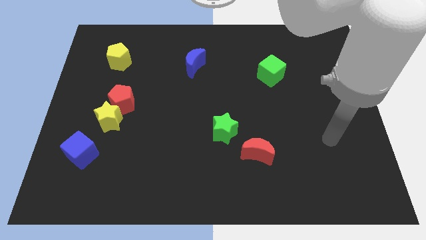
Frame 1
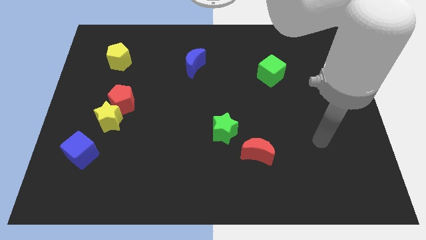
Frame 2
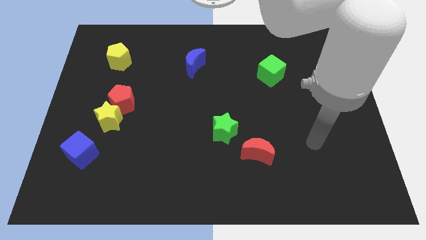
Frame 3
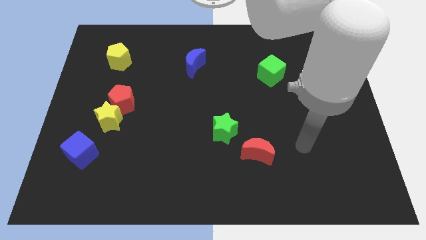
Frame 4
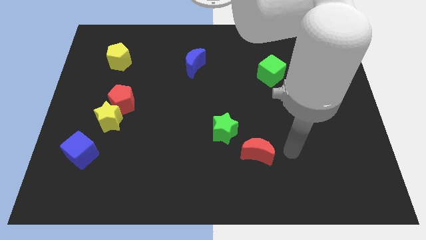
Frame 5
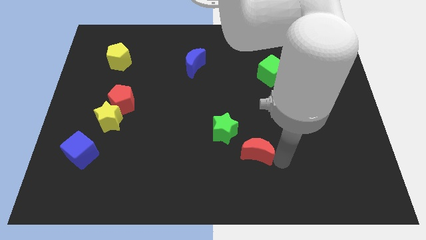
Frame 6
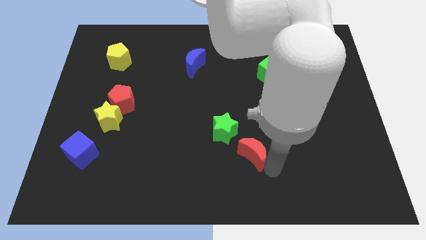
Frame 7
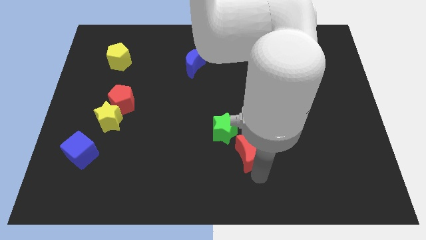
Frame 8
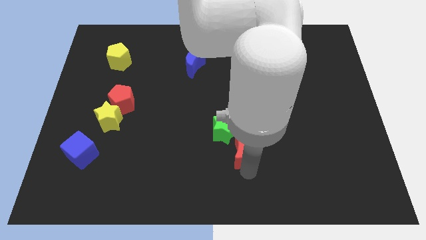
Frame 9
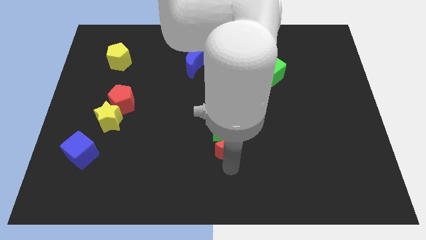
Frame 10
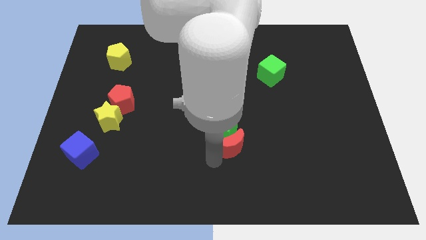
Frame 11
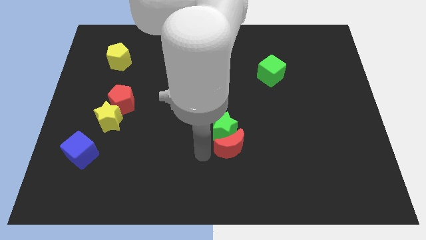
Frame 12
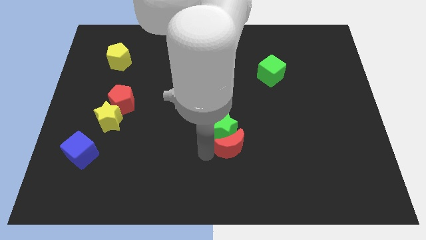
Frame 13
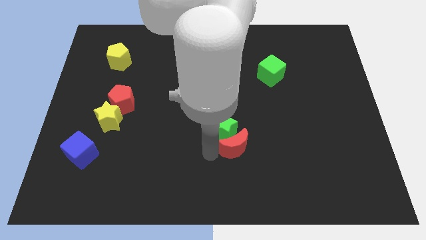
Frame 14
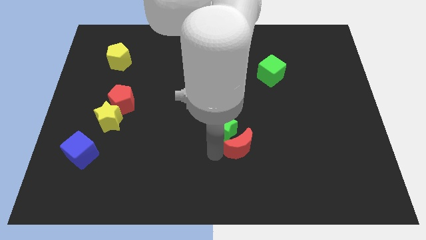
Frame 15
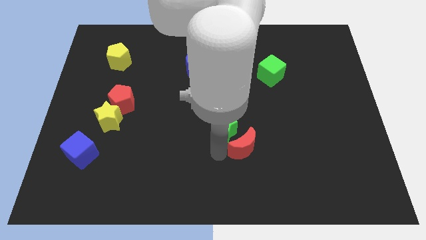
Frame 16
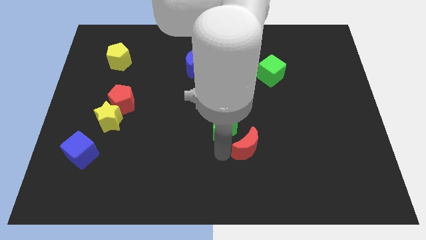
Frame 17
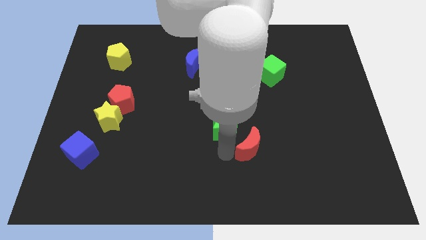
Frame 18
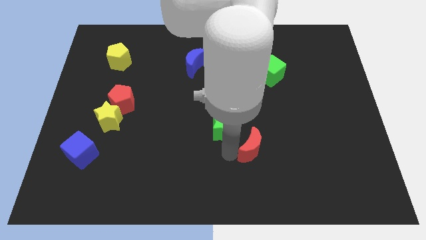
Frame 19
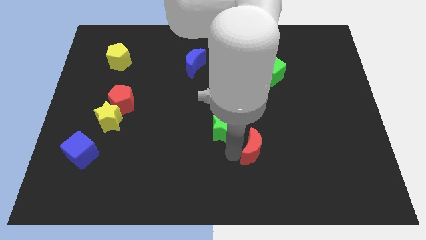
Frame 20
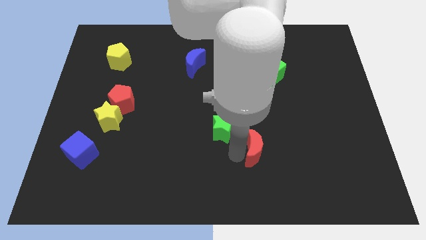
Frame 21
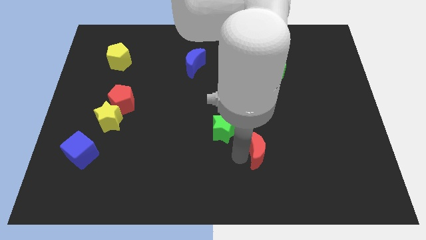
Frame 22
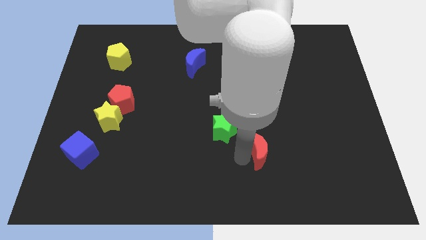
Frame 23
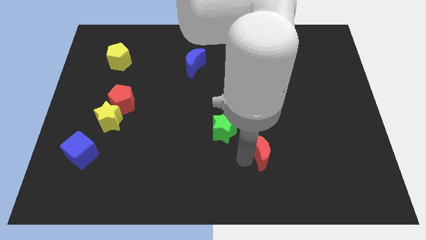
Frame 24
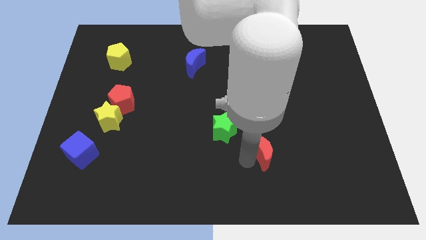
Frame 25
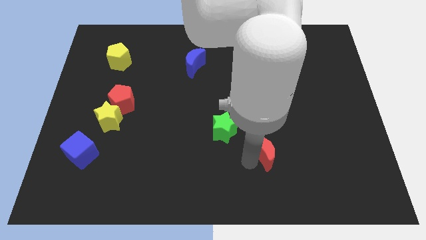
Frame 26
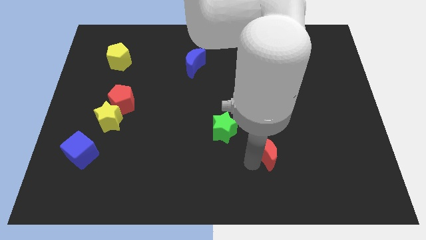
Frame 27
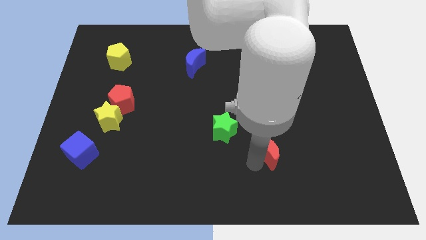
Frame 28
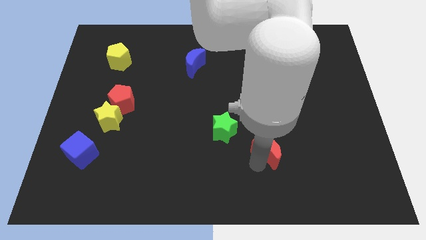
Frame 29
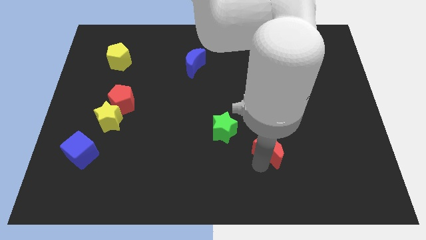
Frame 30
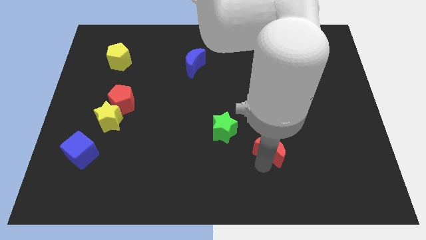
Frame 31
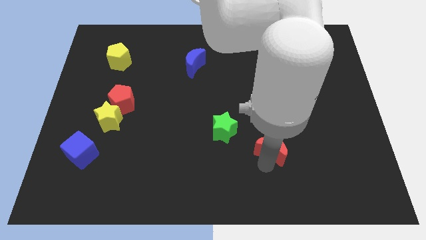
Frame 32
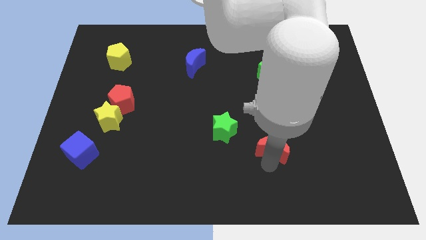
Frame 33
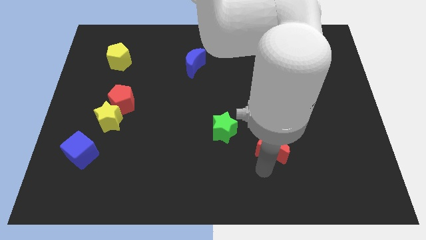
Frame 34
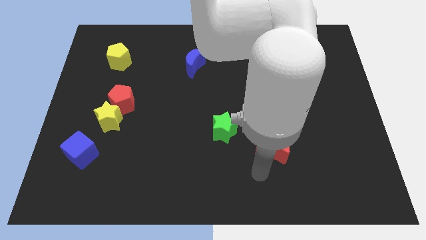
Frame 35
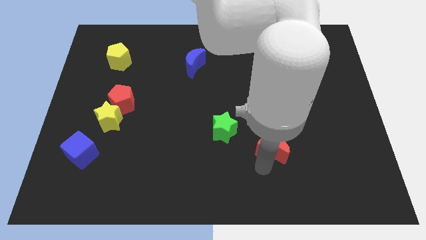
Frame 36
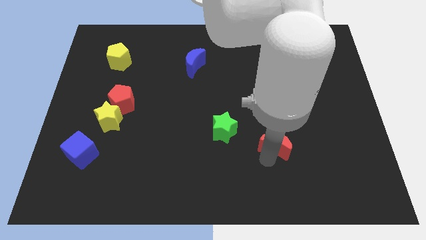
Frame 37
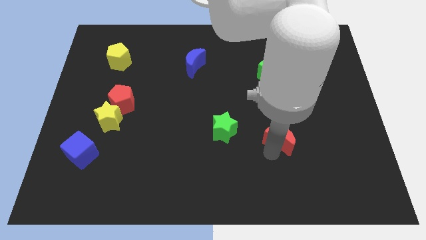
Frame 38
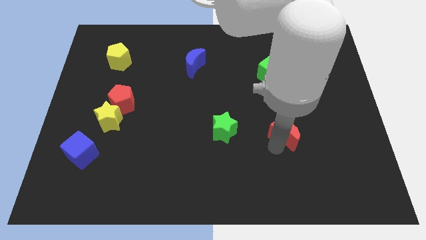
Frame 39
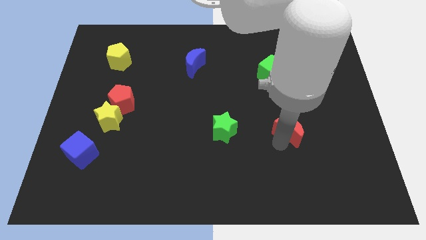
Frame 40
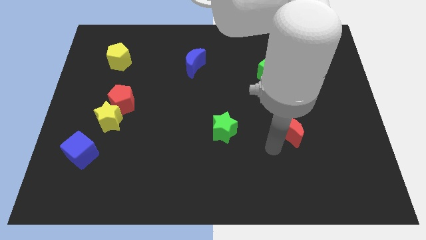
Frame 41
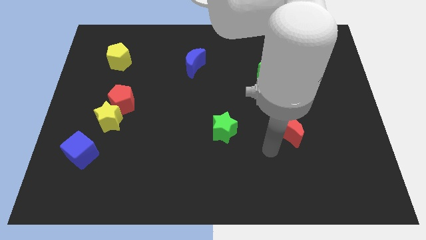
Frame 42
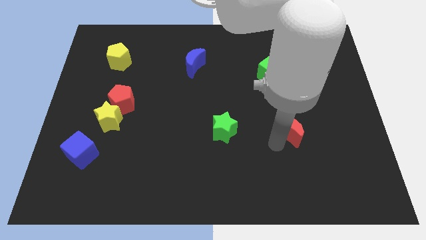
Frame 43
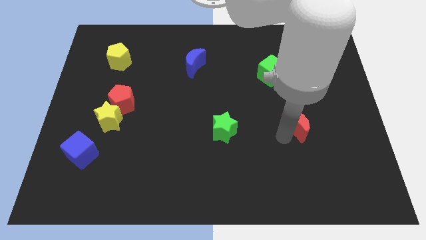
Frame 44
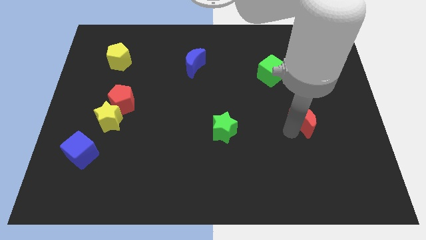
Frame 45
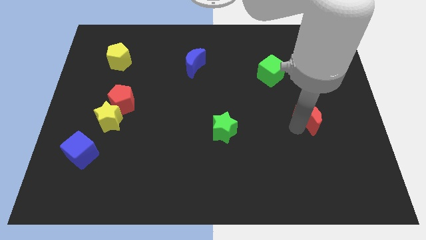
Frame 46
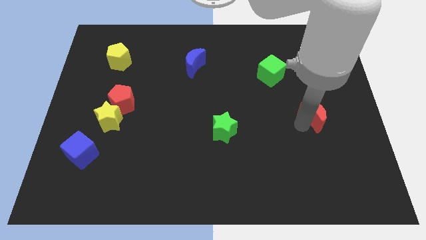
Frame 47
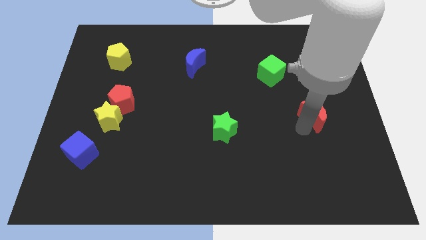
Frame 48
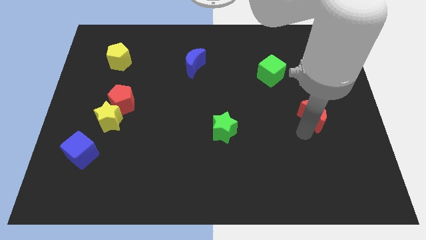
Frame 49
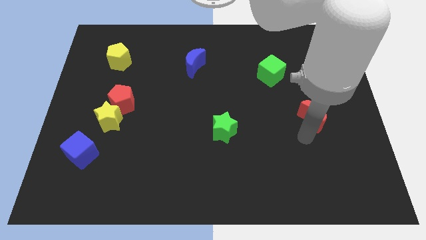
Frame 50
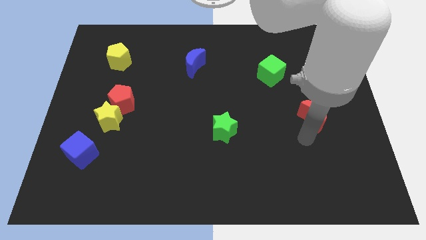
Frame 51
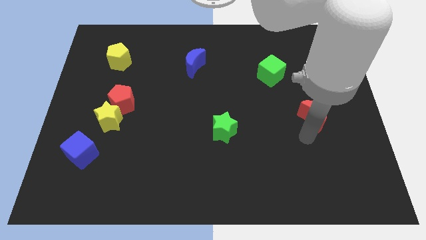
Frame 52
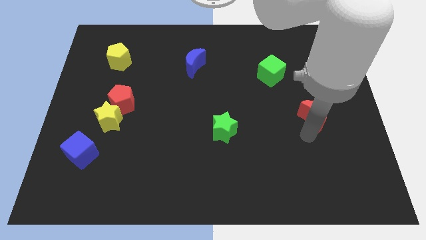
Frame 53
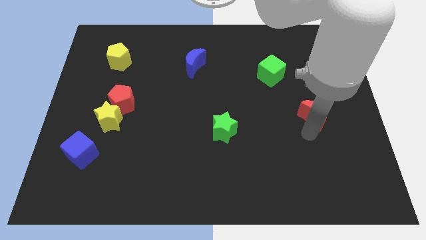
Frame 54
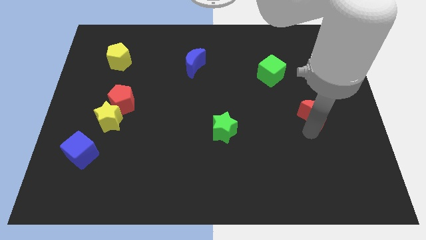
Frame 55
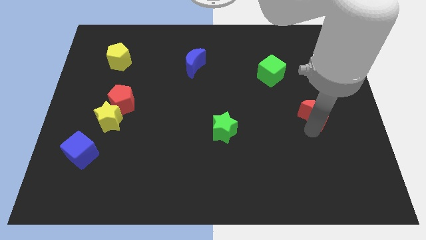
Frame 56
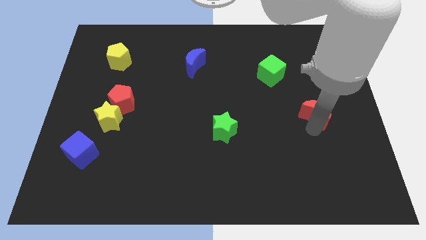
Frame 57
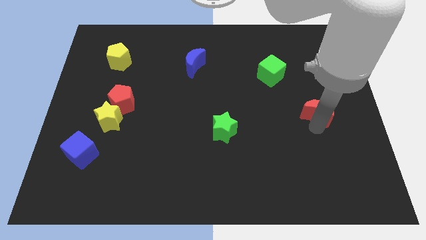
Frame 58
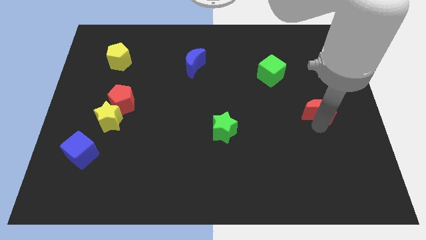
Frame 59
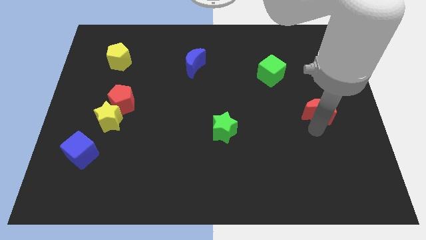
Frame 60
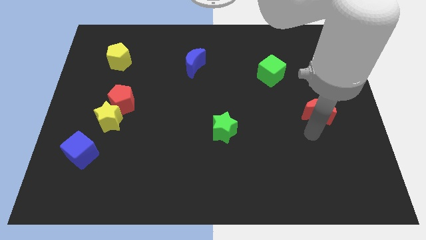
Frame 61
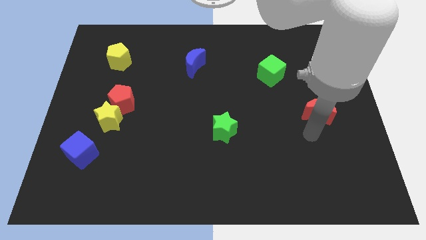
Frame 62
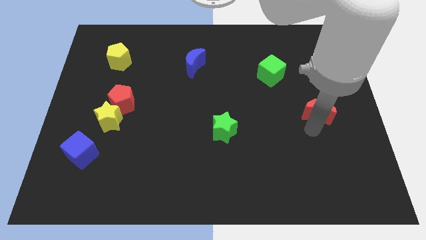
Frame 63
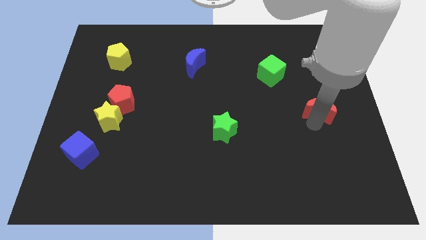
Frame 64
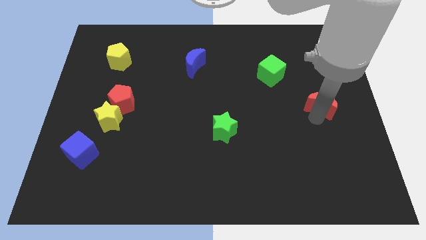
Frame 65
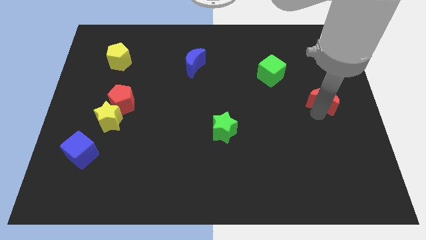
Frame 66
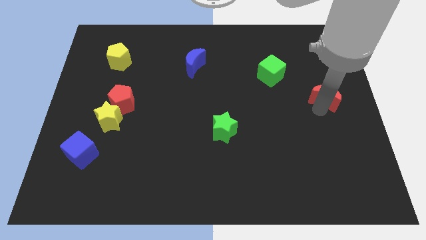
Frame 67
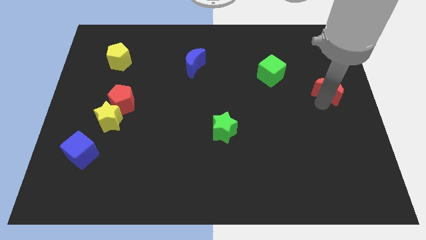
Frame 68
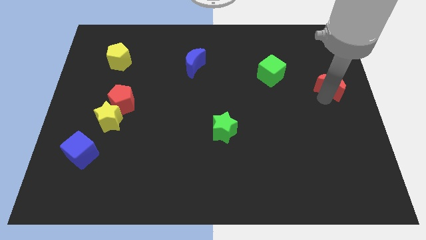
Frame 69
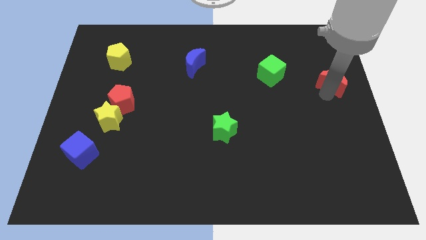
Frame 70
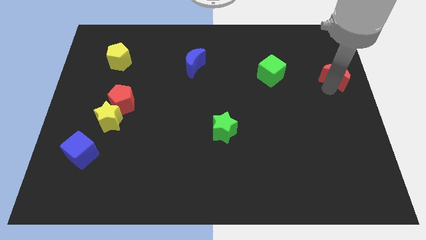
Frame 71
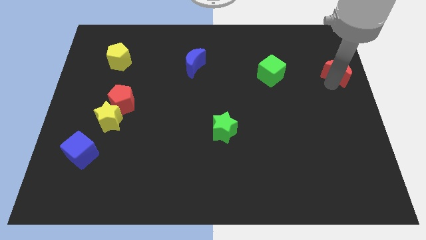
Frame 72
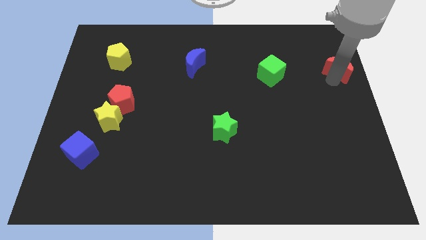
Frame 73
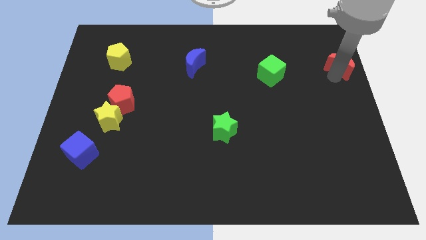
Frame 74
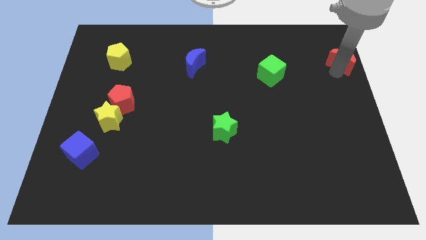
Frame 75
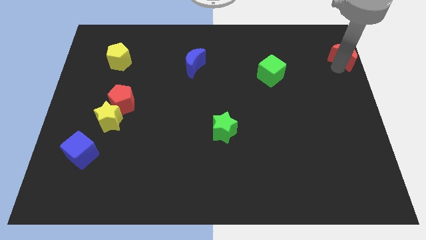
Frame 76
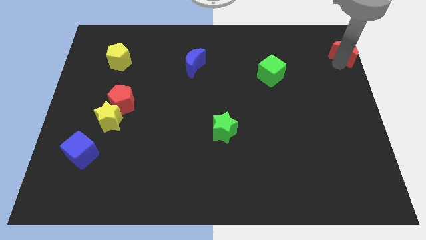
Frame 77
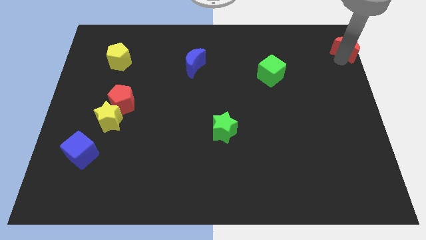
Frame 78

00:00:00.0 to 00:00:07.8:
move the red moon to the top right corner
